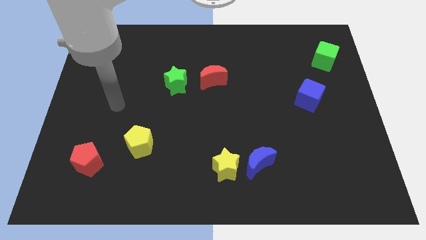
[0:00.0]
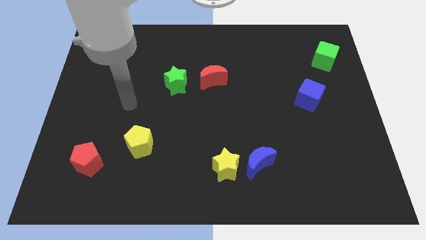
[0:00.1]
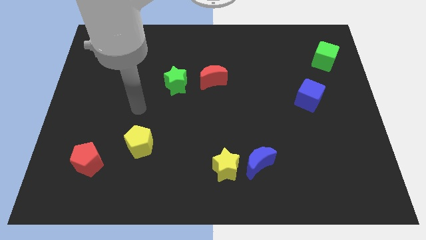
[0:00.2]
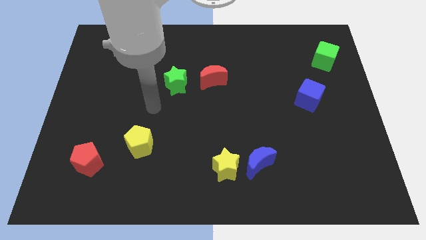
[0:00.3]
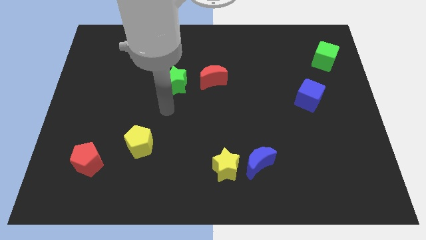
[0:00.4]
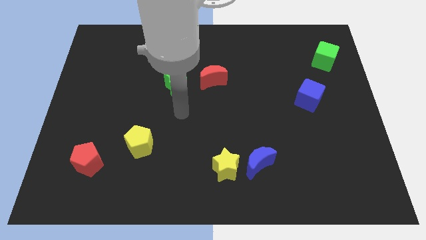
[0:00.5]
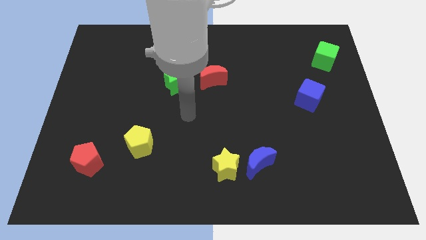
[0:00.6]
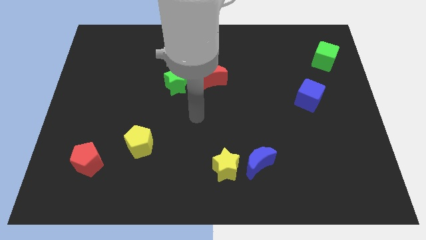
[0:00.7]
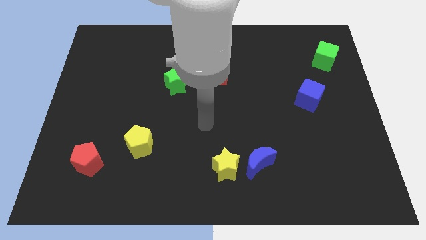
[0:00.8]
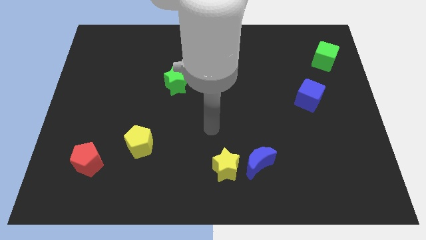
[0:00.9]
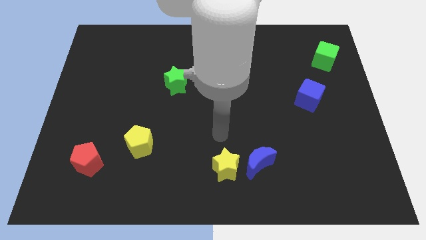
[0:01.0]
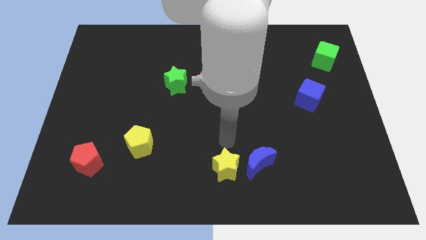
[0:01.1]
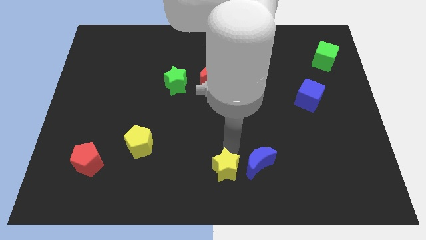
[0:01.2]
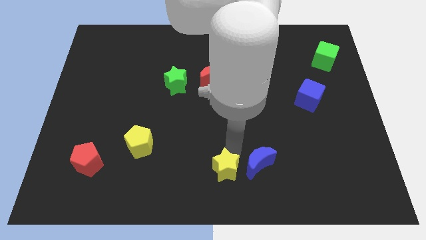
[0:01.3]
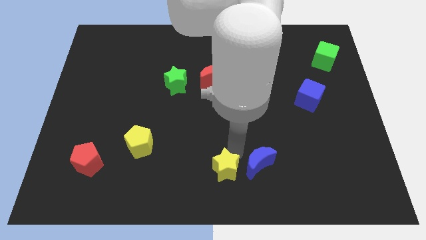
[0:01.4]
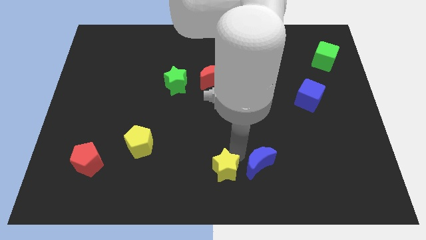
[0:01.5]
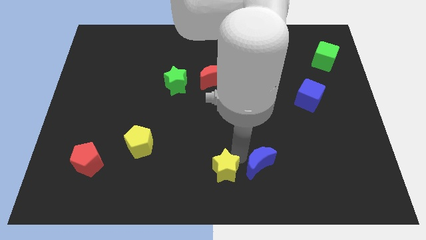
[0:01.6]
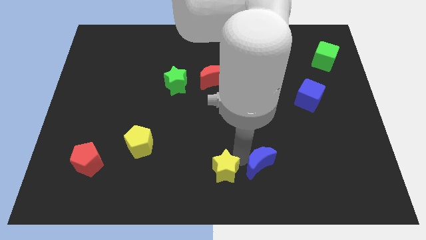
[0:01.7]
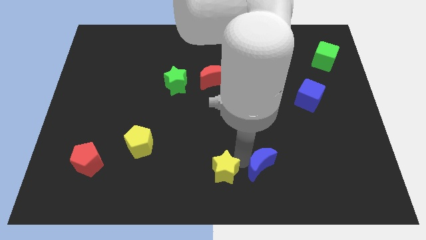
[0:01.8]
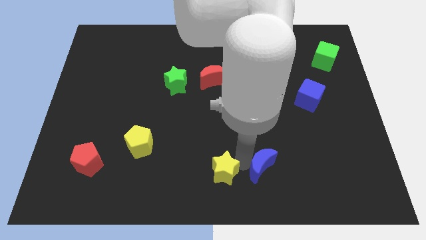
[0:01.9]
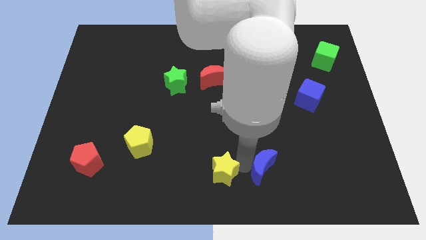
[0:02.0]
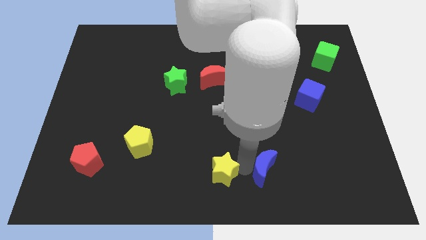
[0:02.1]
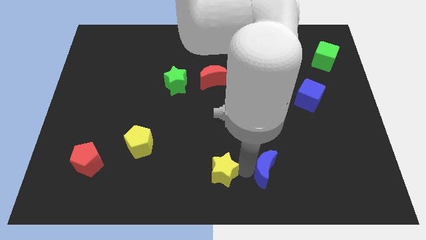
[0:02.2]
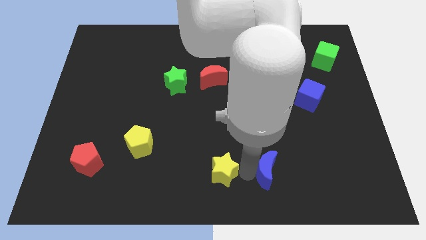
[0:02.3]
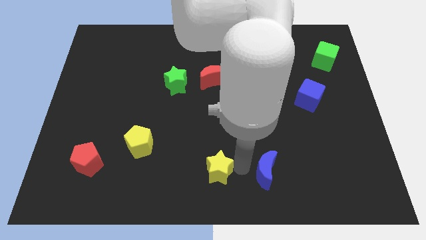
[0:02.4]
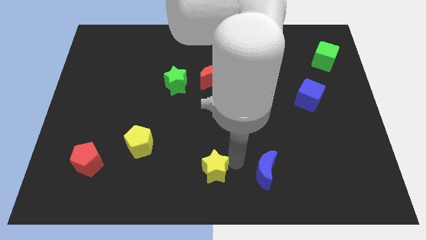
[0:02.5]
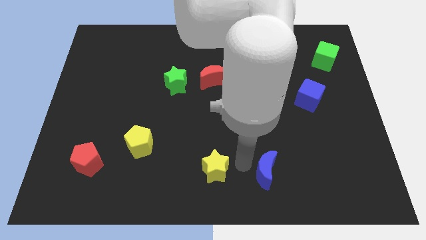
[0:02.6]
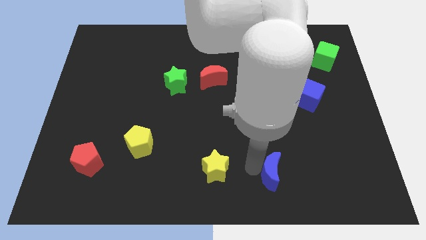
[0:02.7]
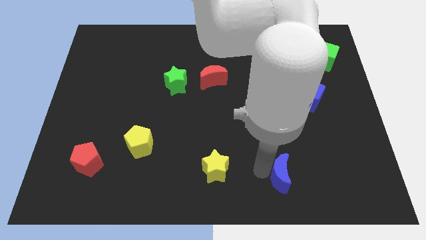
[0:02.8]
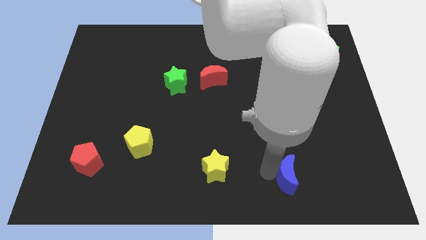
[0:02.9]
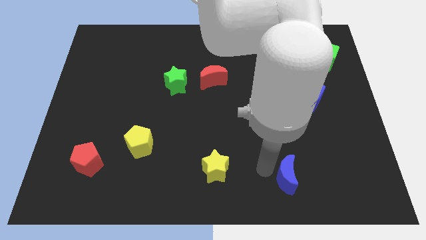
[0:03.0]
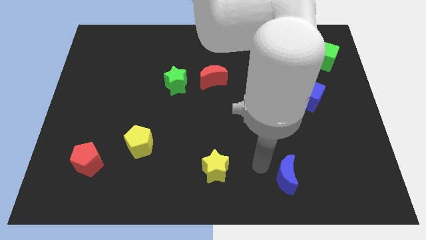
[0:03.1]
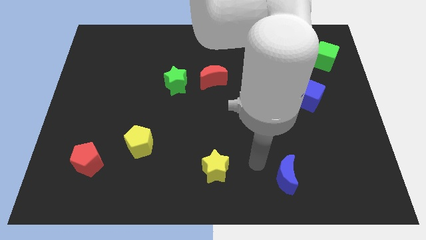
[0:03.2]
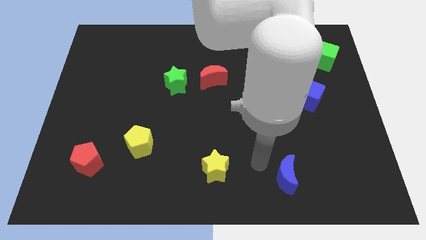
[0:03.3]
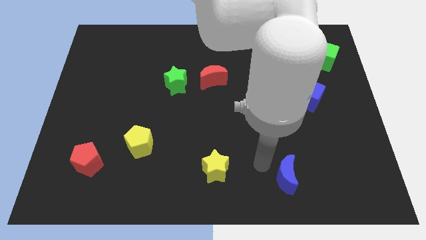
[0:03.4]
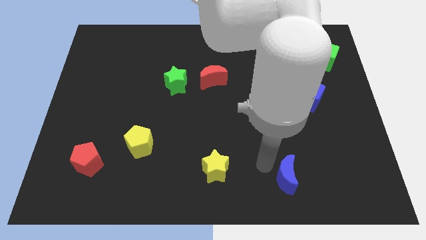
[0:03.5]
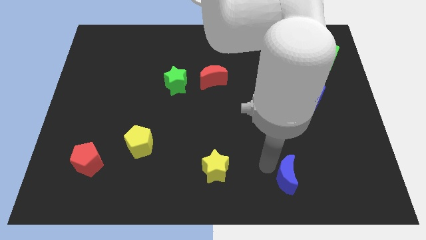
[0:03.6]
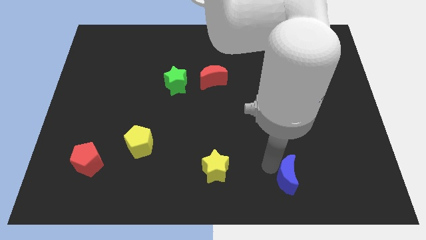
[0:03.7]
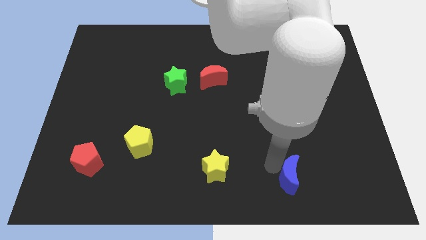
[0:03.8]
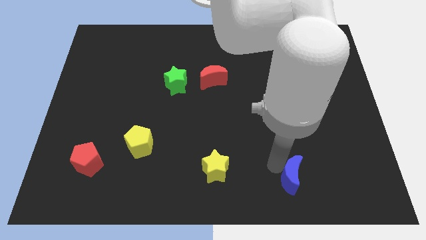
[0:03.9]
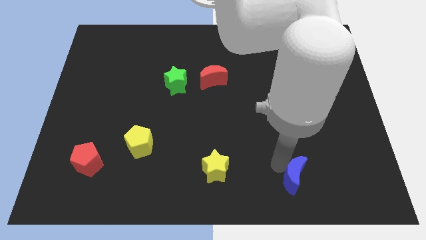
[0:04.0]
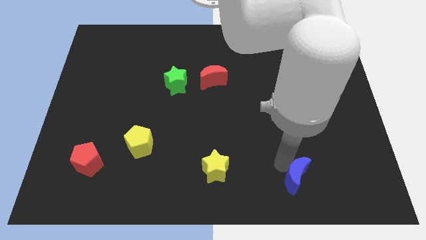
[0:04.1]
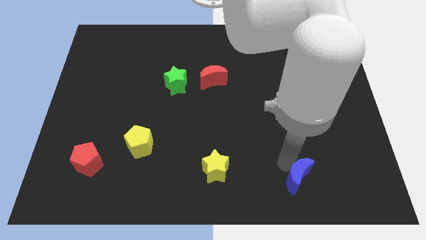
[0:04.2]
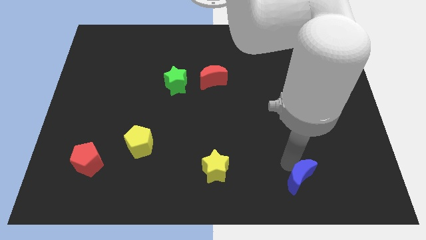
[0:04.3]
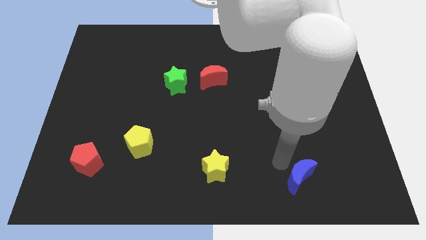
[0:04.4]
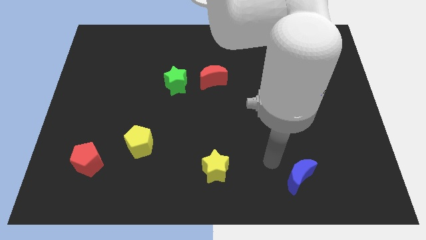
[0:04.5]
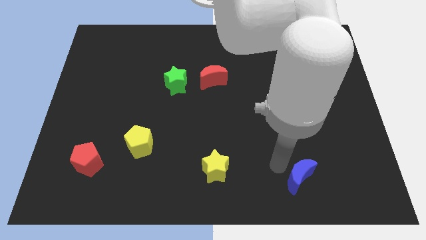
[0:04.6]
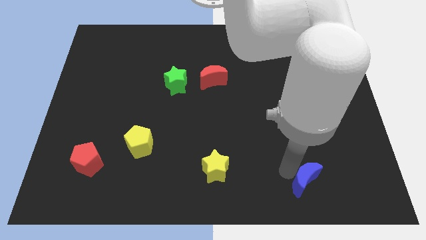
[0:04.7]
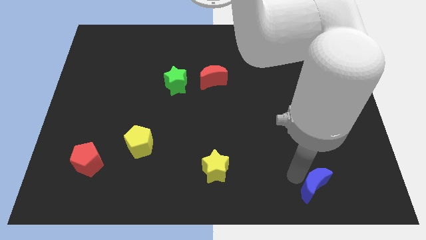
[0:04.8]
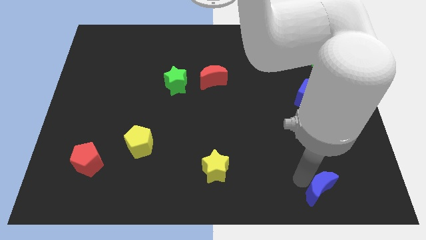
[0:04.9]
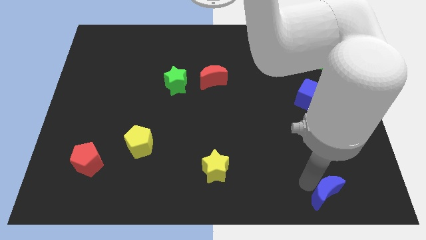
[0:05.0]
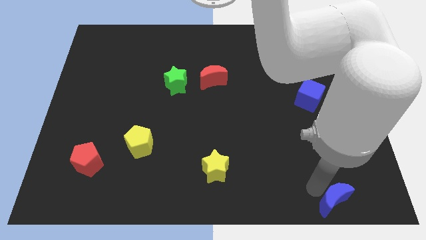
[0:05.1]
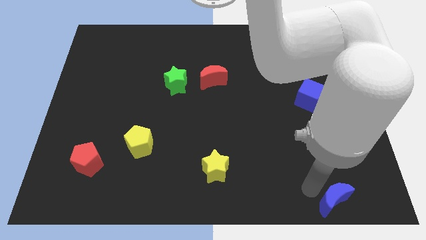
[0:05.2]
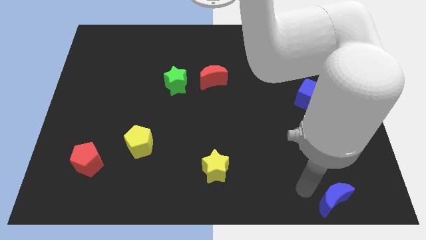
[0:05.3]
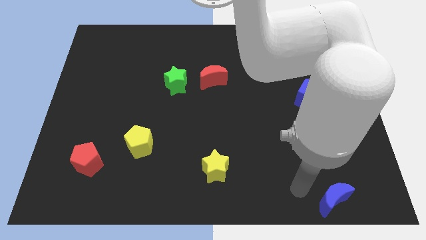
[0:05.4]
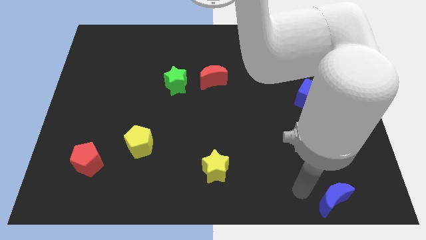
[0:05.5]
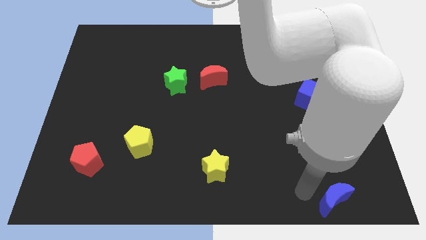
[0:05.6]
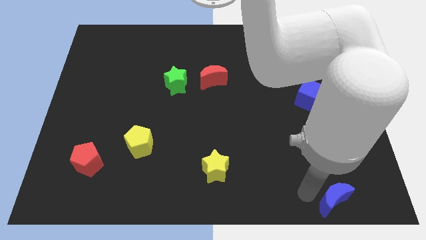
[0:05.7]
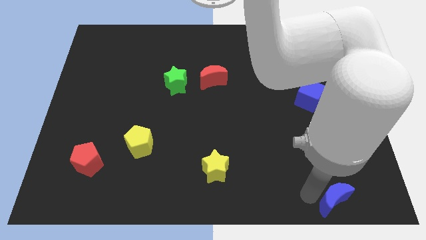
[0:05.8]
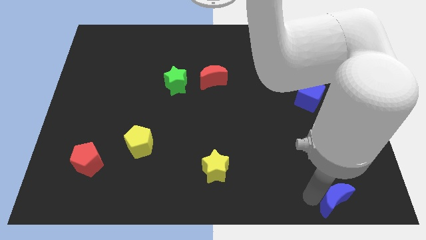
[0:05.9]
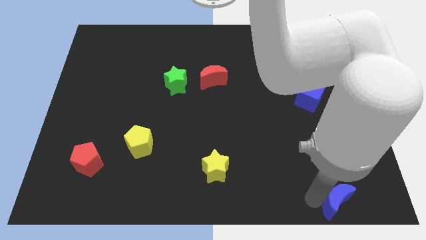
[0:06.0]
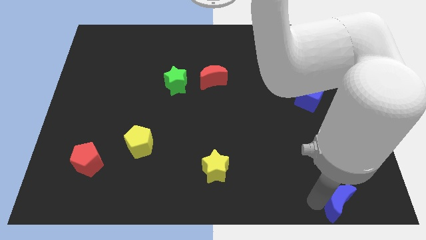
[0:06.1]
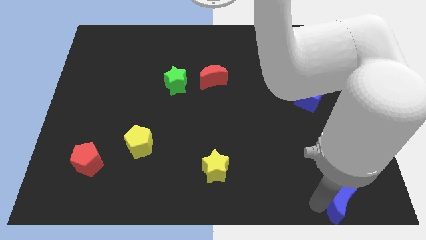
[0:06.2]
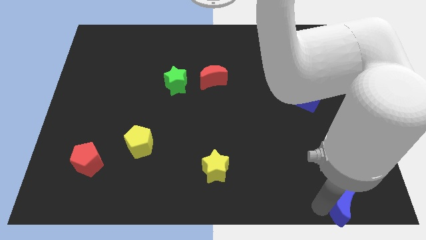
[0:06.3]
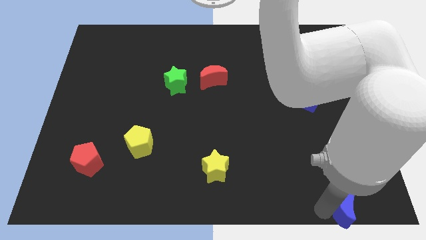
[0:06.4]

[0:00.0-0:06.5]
move the blue moon to the bottom right corner
